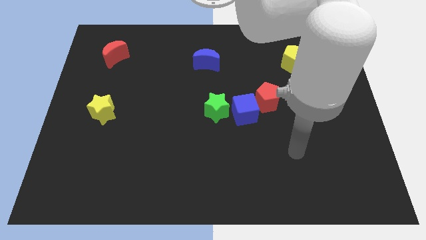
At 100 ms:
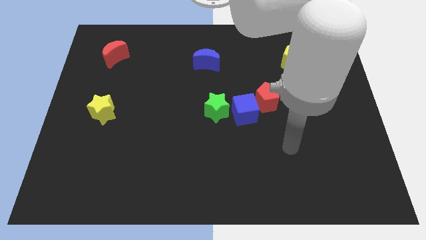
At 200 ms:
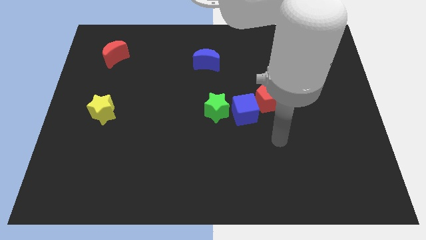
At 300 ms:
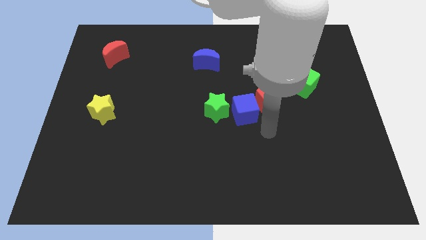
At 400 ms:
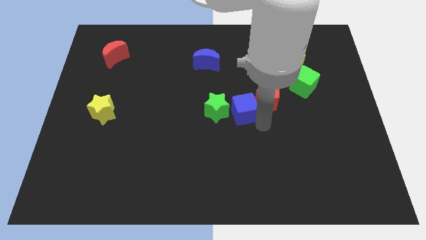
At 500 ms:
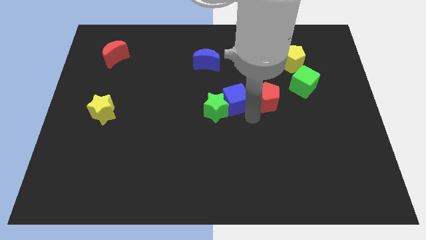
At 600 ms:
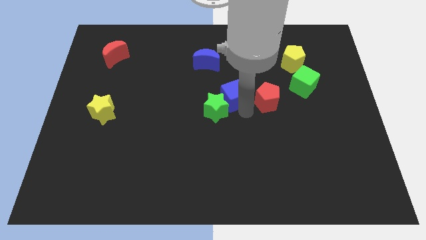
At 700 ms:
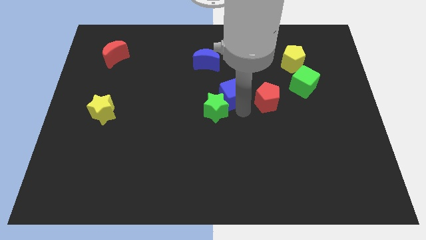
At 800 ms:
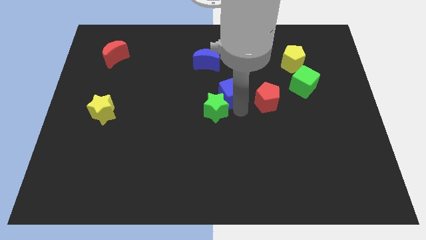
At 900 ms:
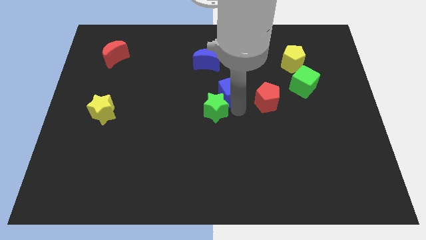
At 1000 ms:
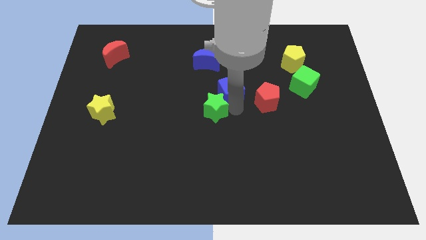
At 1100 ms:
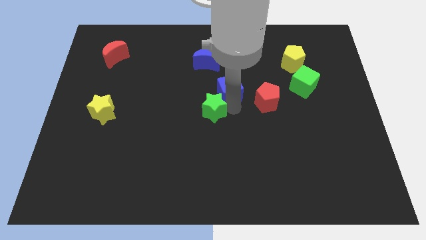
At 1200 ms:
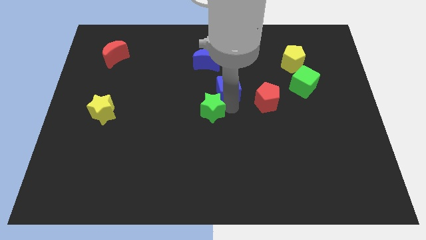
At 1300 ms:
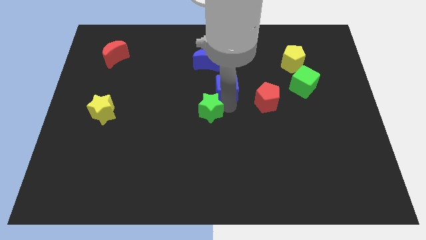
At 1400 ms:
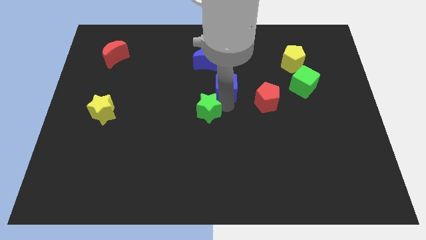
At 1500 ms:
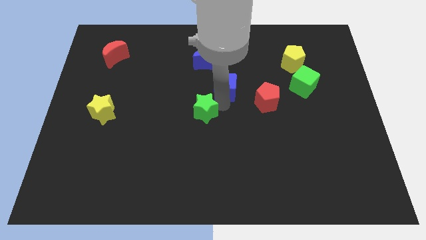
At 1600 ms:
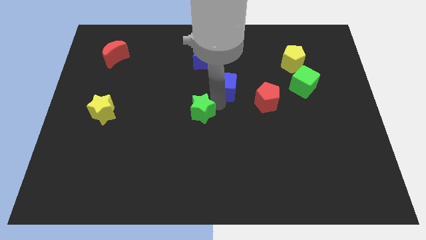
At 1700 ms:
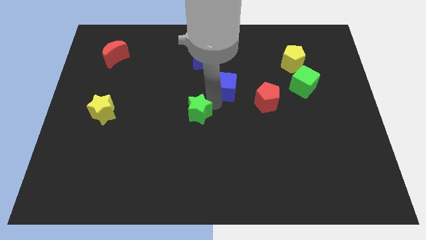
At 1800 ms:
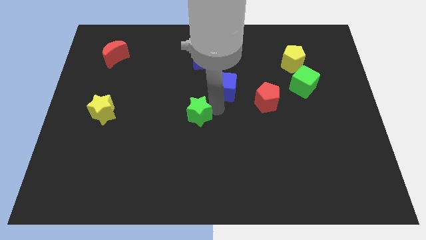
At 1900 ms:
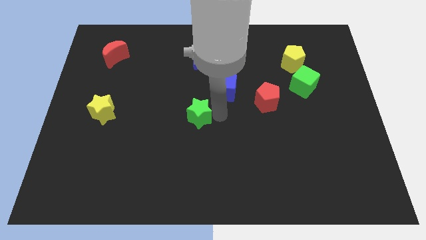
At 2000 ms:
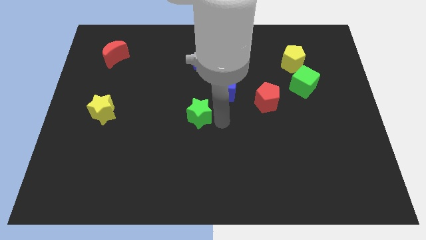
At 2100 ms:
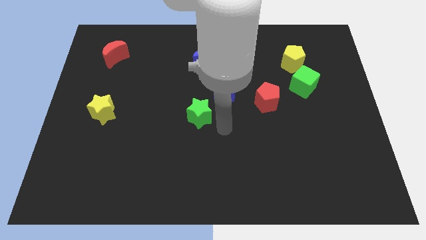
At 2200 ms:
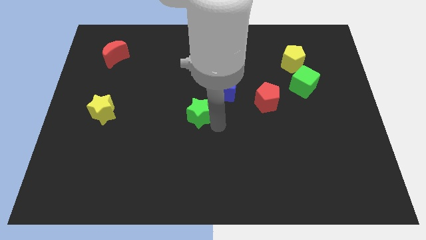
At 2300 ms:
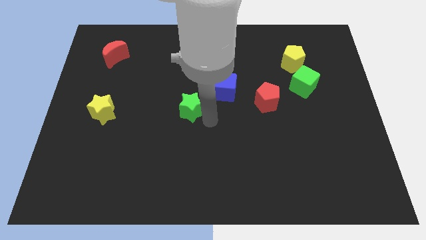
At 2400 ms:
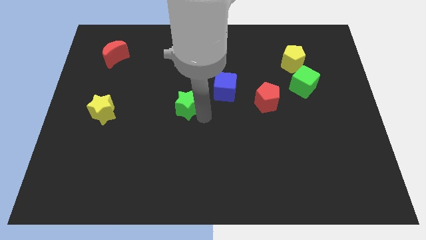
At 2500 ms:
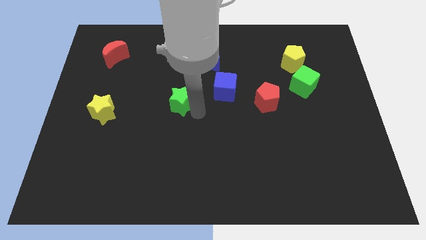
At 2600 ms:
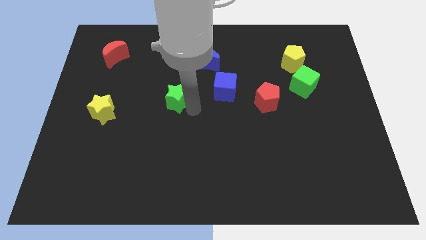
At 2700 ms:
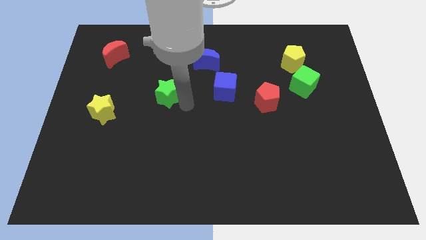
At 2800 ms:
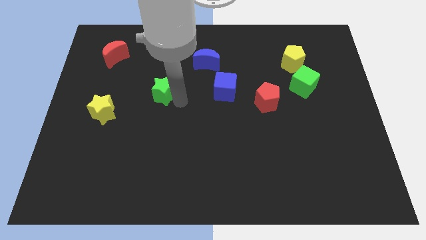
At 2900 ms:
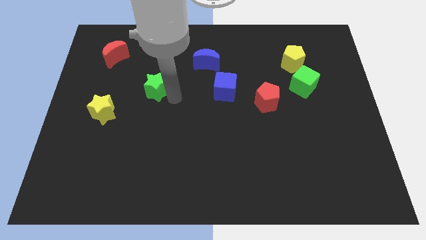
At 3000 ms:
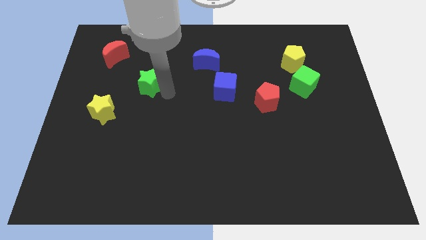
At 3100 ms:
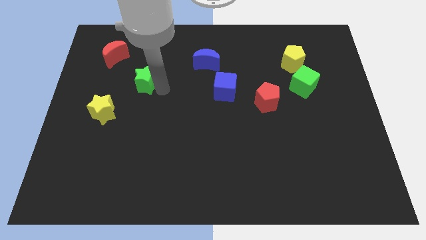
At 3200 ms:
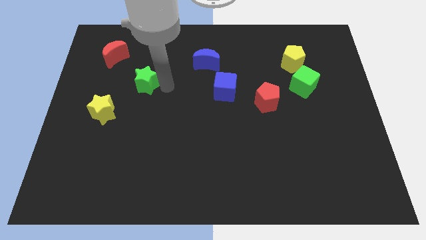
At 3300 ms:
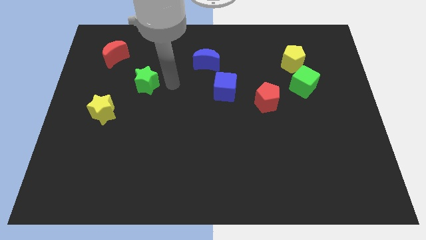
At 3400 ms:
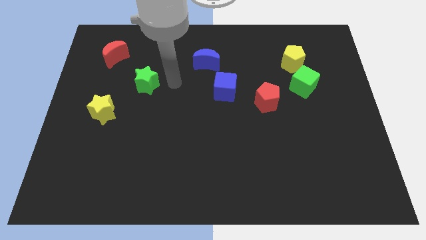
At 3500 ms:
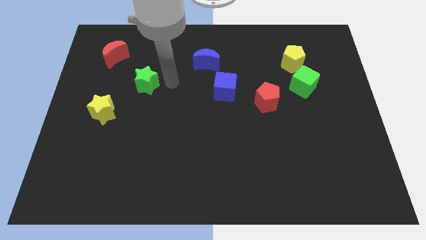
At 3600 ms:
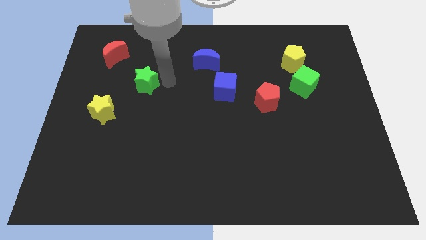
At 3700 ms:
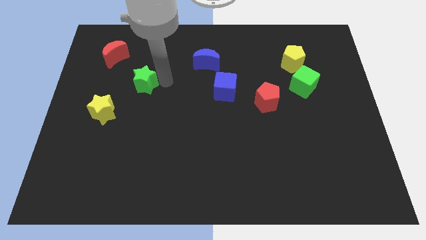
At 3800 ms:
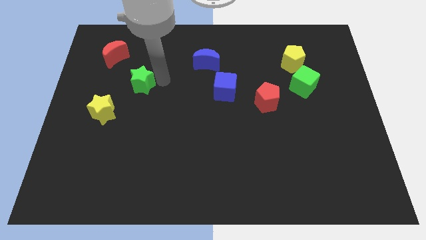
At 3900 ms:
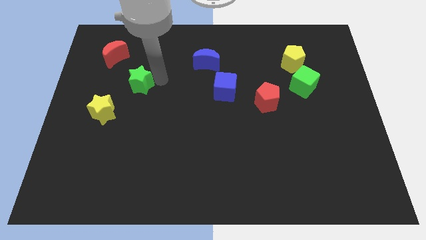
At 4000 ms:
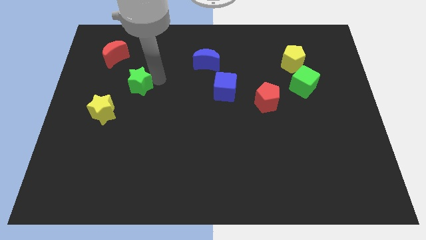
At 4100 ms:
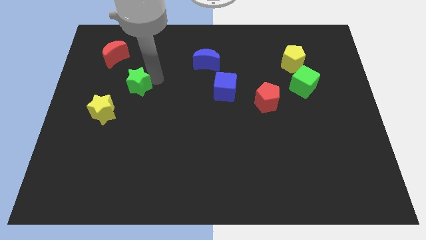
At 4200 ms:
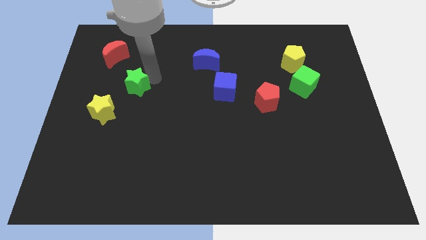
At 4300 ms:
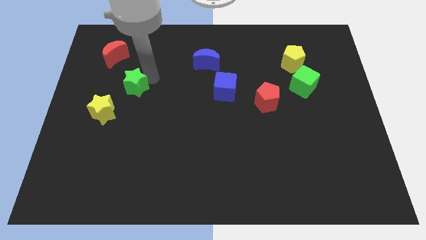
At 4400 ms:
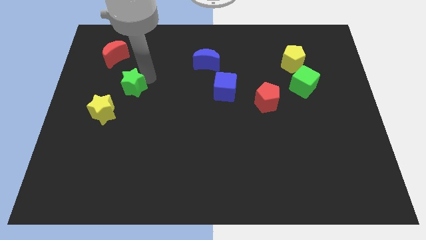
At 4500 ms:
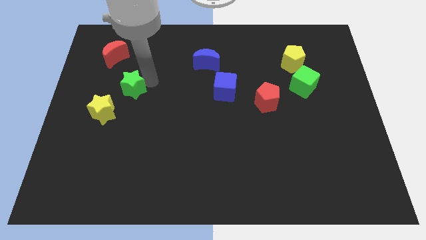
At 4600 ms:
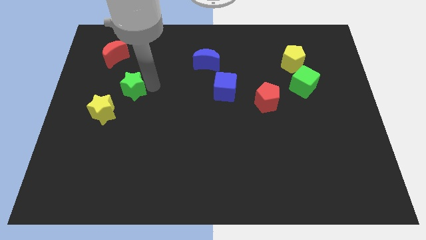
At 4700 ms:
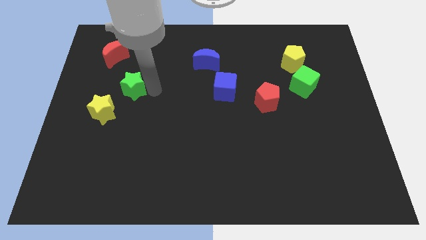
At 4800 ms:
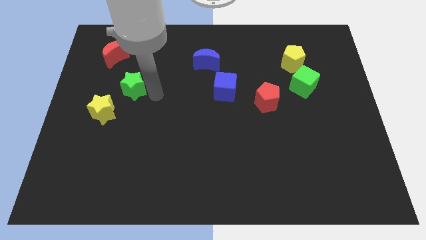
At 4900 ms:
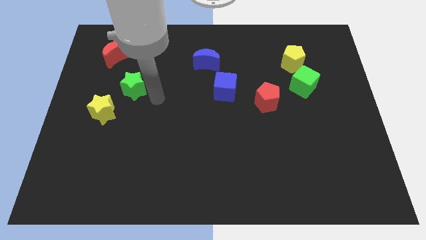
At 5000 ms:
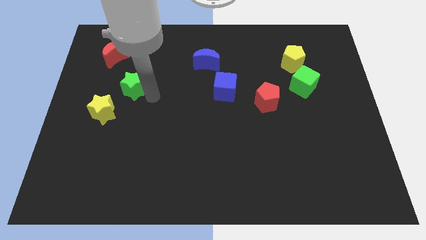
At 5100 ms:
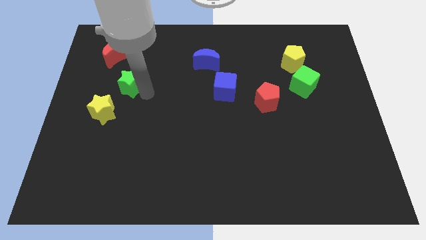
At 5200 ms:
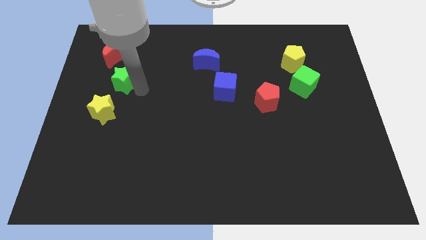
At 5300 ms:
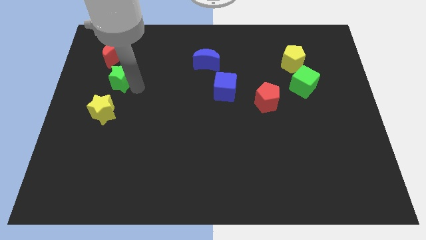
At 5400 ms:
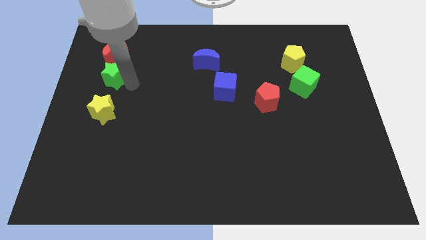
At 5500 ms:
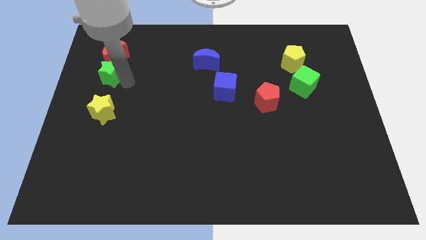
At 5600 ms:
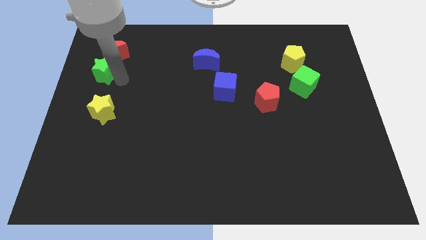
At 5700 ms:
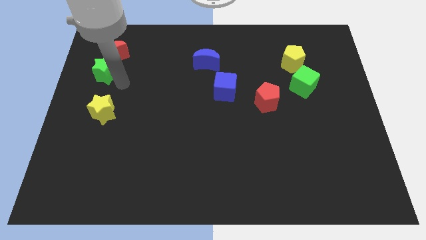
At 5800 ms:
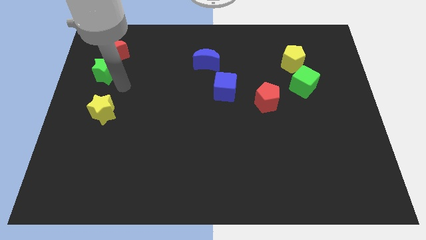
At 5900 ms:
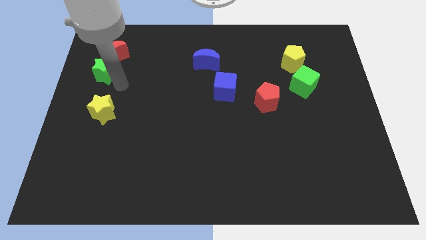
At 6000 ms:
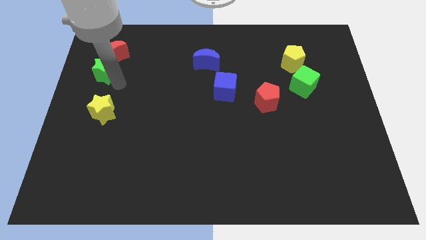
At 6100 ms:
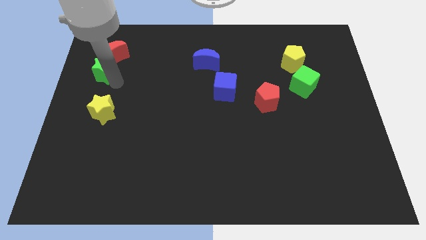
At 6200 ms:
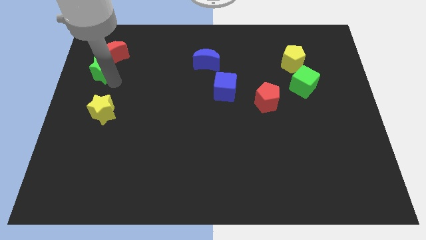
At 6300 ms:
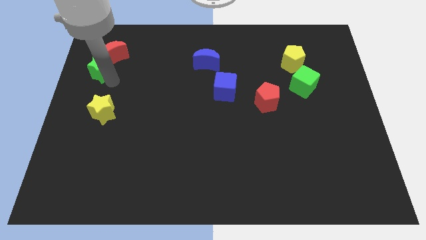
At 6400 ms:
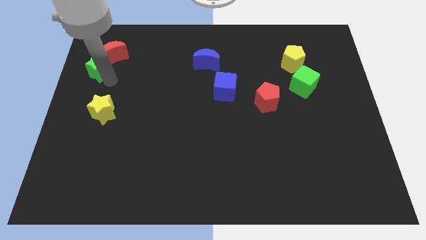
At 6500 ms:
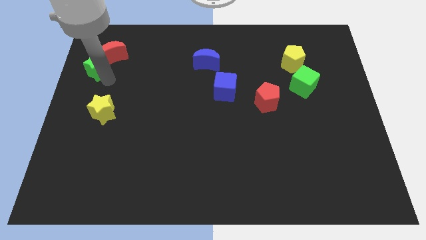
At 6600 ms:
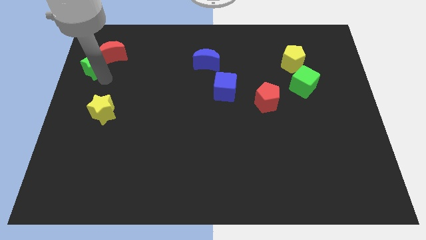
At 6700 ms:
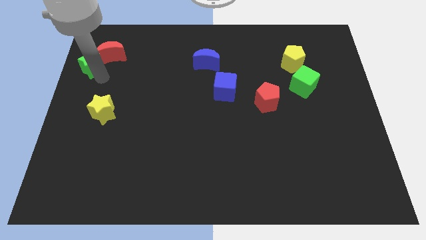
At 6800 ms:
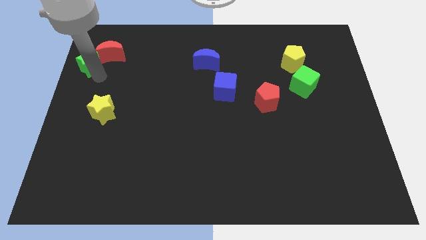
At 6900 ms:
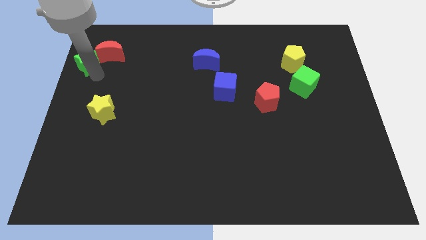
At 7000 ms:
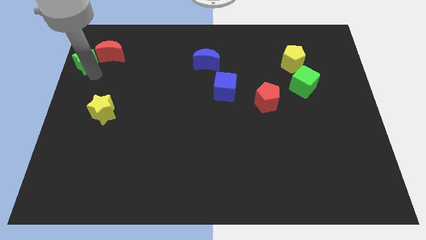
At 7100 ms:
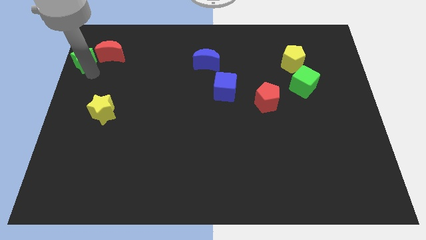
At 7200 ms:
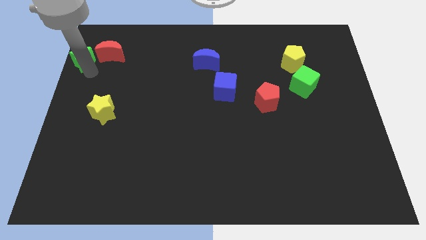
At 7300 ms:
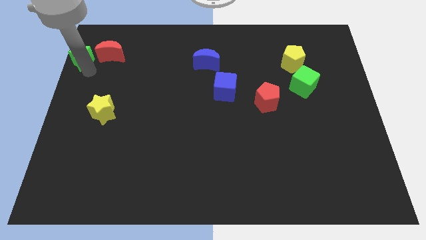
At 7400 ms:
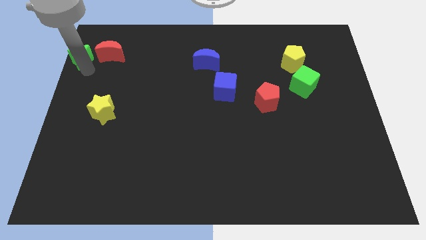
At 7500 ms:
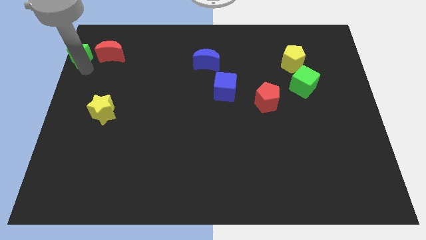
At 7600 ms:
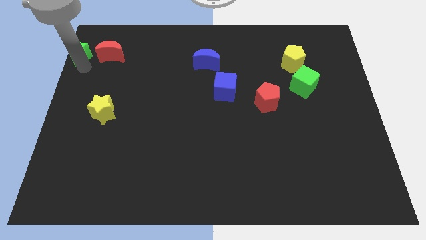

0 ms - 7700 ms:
push the green star to the top left of the board
